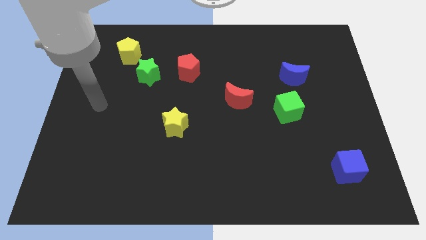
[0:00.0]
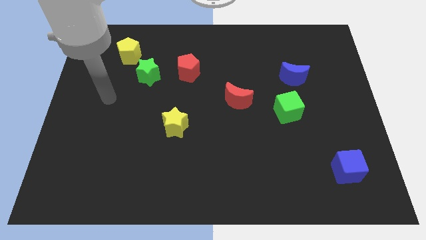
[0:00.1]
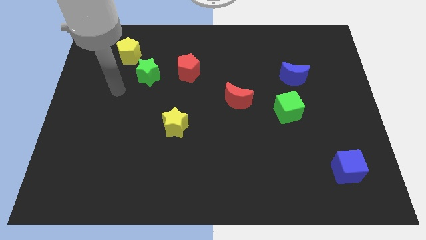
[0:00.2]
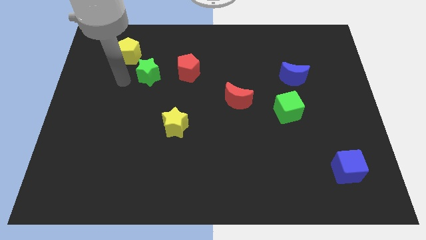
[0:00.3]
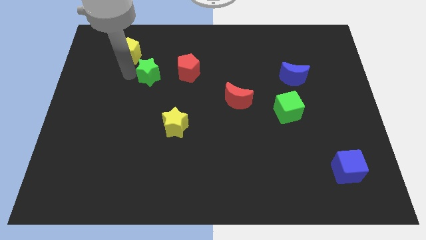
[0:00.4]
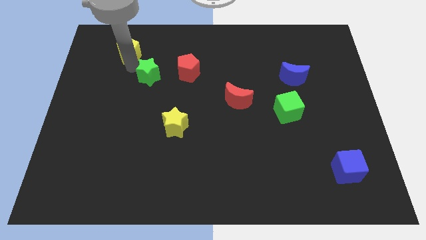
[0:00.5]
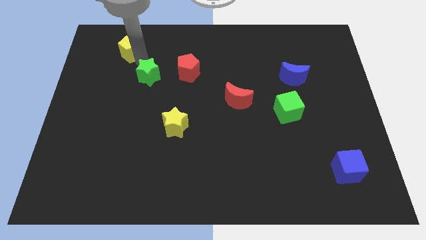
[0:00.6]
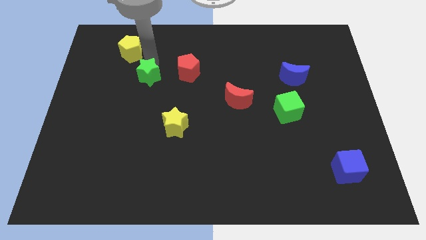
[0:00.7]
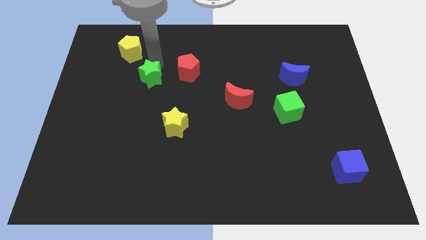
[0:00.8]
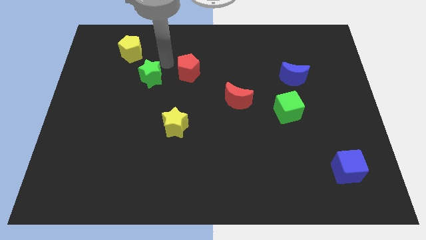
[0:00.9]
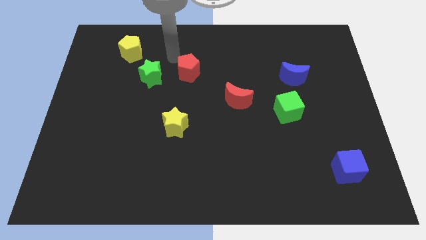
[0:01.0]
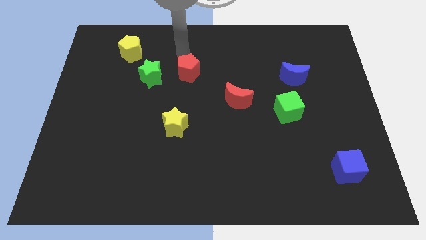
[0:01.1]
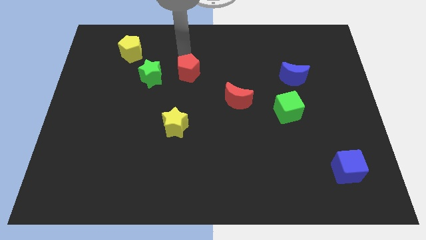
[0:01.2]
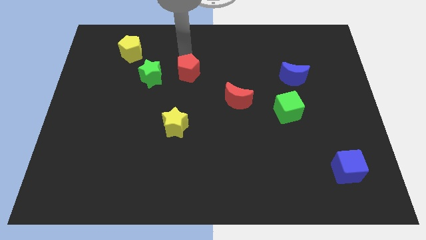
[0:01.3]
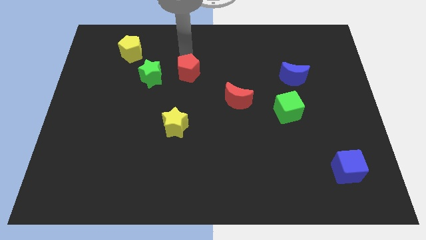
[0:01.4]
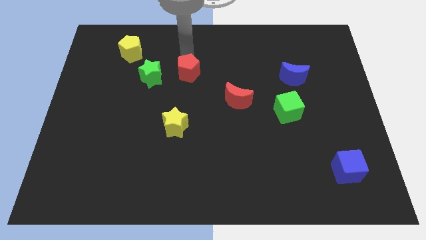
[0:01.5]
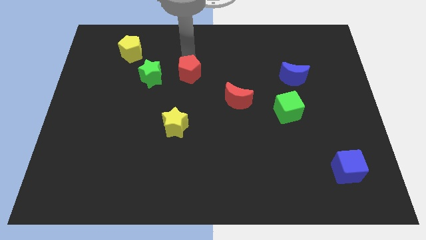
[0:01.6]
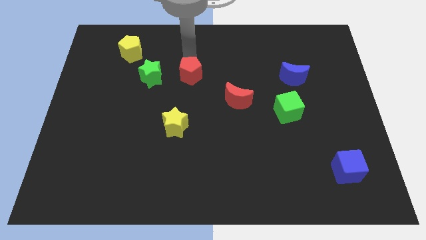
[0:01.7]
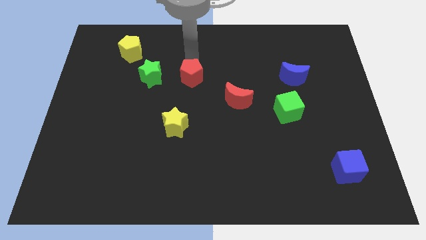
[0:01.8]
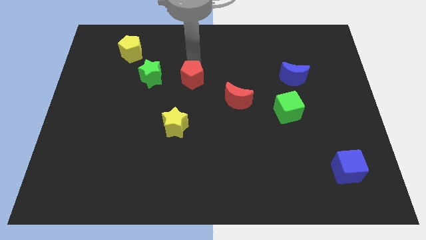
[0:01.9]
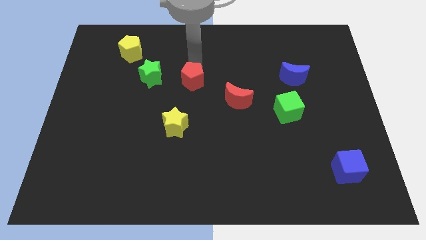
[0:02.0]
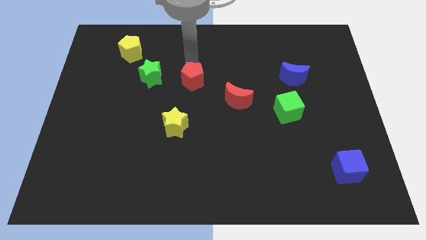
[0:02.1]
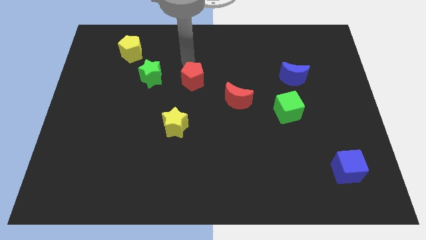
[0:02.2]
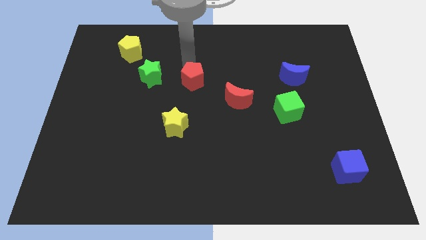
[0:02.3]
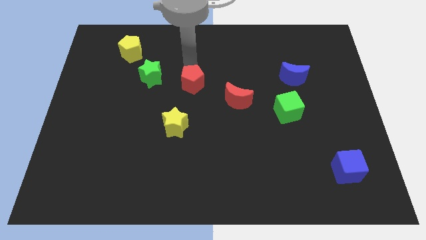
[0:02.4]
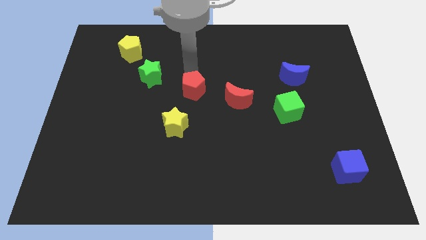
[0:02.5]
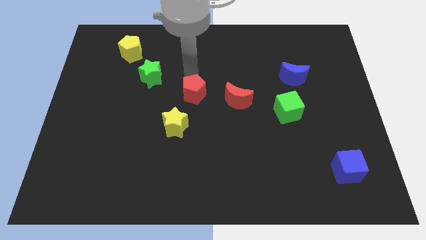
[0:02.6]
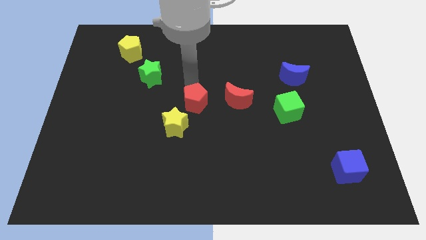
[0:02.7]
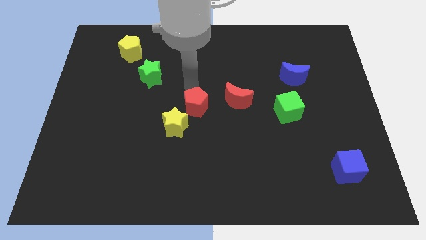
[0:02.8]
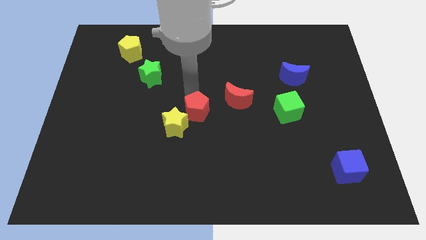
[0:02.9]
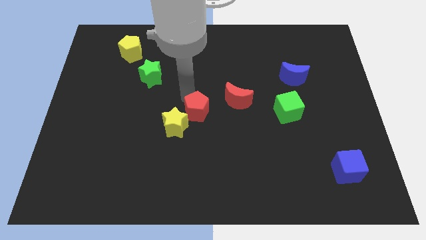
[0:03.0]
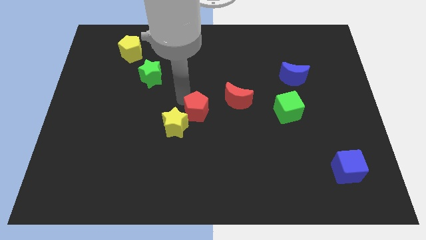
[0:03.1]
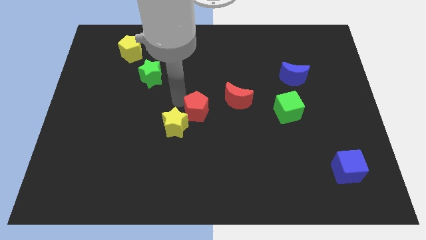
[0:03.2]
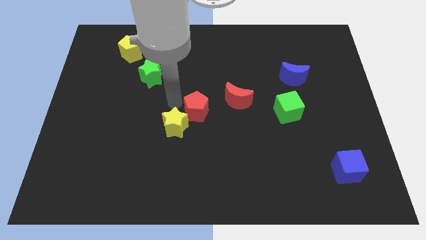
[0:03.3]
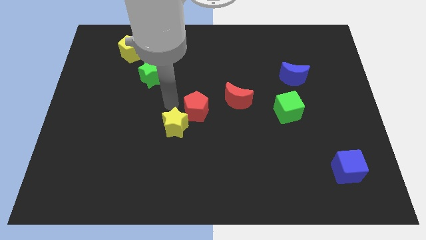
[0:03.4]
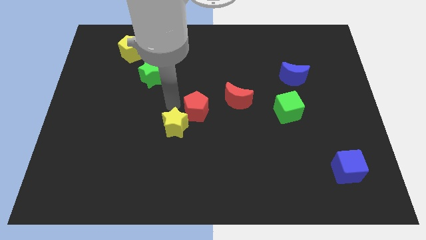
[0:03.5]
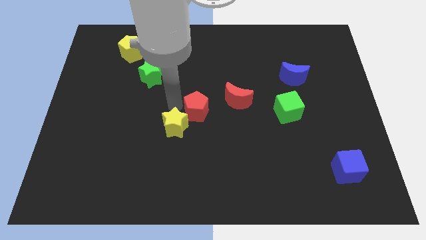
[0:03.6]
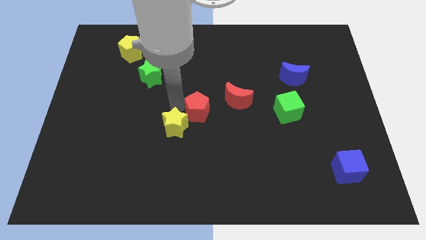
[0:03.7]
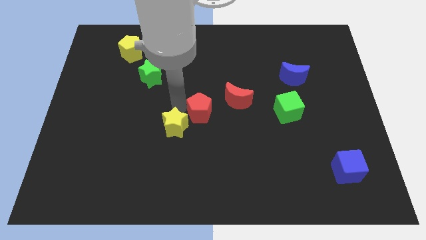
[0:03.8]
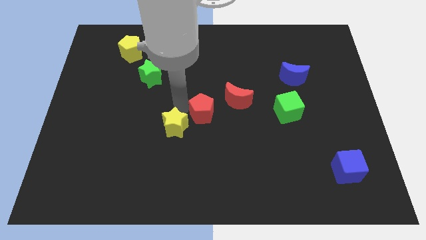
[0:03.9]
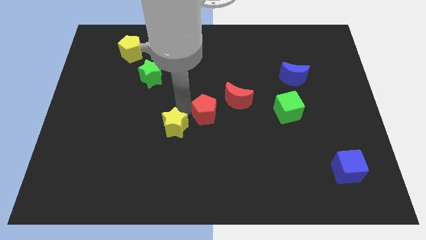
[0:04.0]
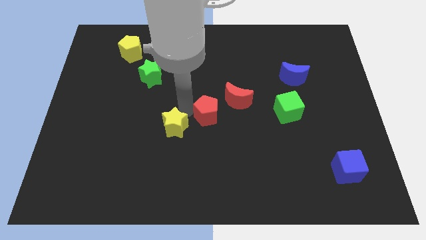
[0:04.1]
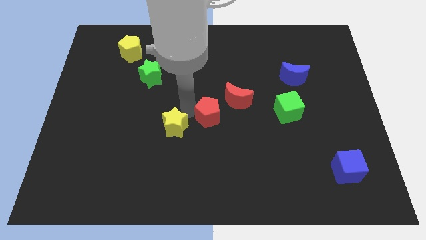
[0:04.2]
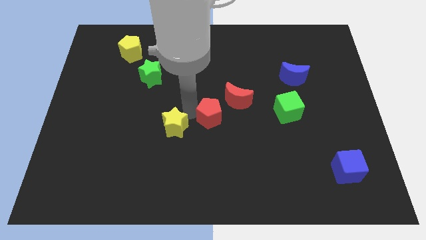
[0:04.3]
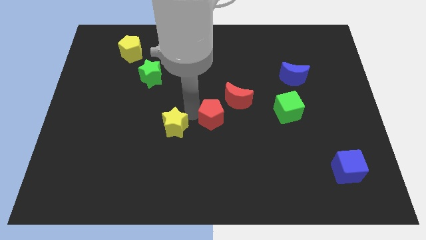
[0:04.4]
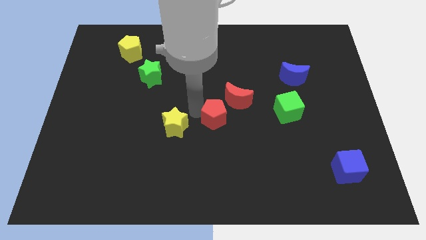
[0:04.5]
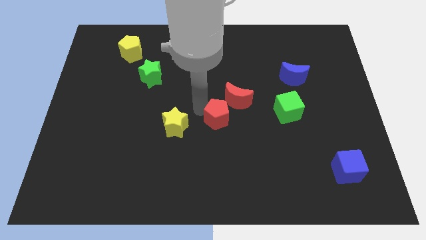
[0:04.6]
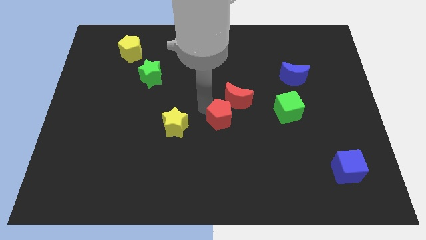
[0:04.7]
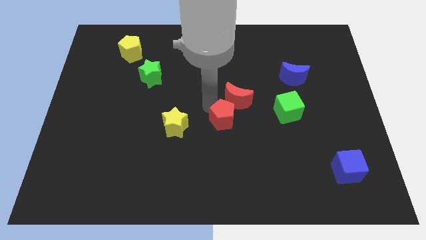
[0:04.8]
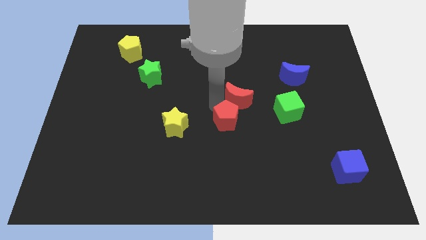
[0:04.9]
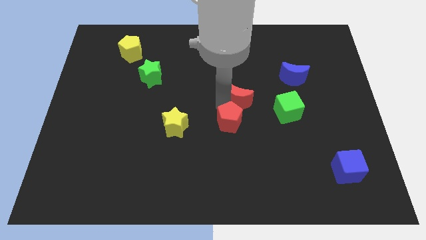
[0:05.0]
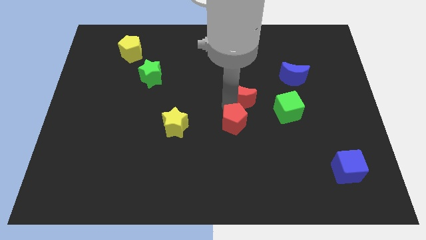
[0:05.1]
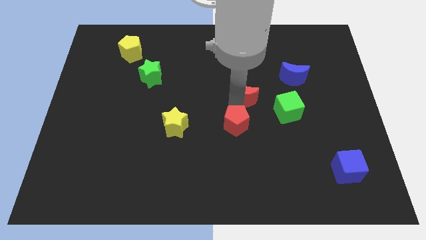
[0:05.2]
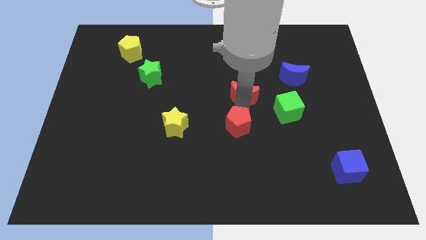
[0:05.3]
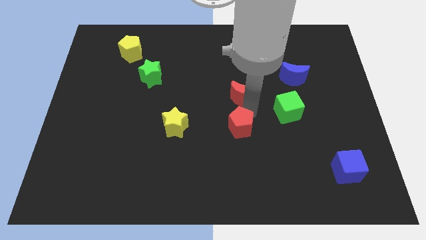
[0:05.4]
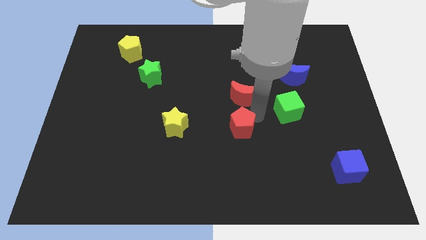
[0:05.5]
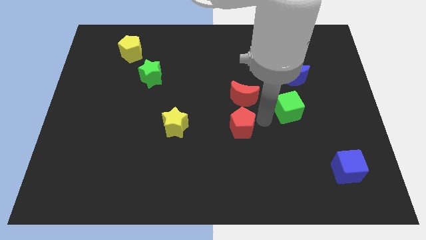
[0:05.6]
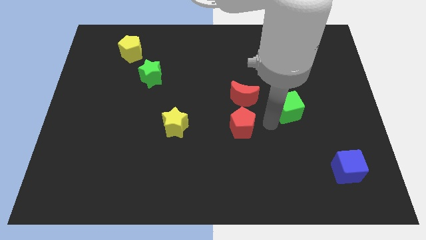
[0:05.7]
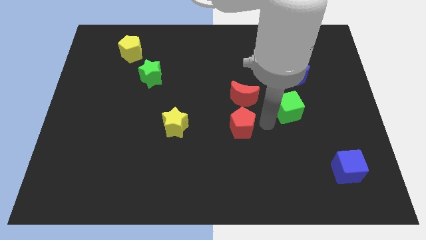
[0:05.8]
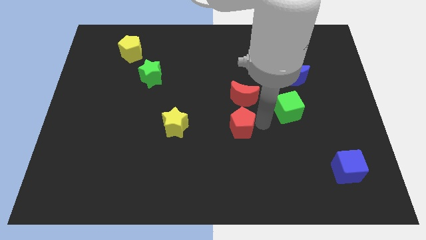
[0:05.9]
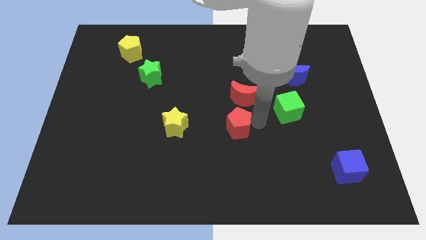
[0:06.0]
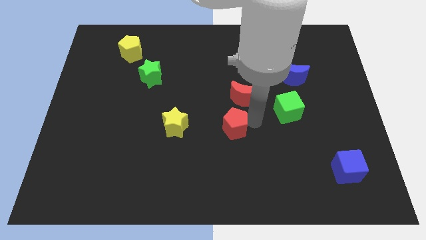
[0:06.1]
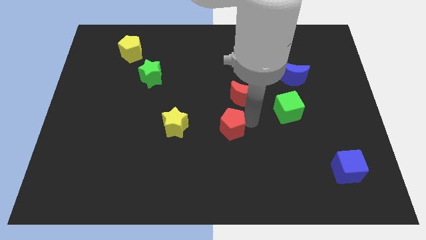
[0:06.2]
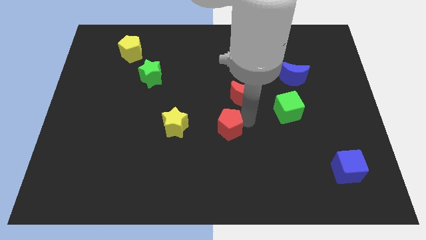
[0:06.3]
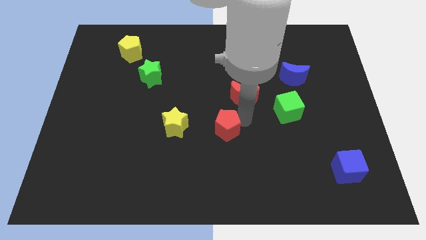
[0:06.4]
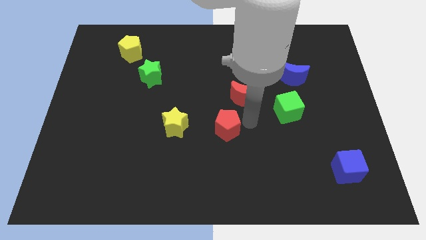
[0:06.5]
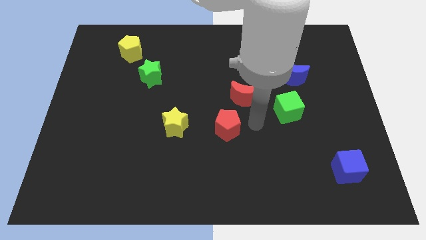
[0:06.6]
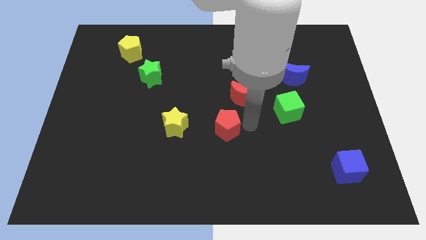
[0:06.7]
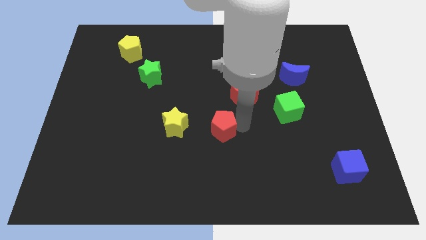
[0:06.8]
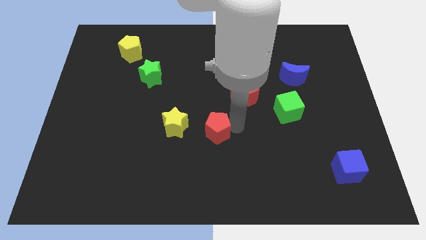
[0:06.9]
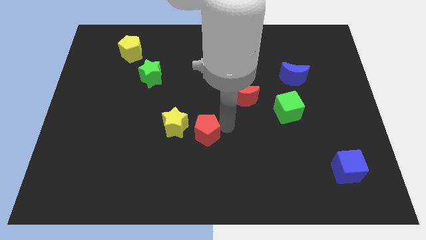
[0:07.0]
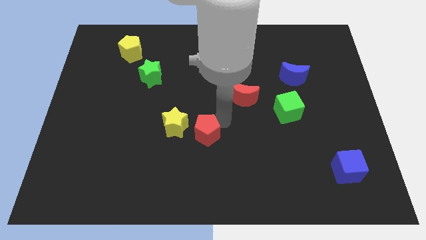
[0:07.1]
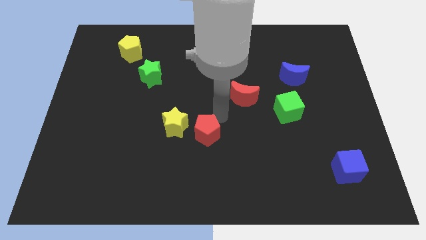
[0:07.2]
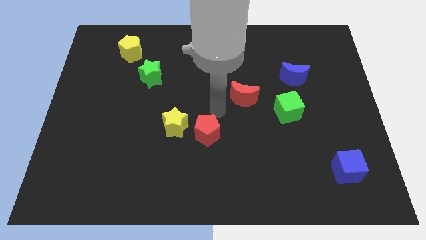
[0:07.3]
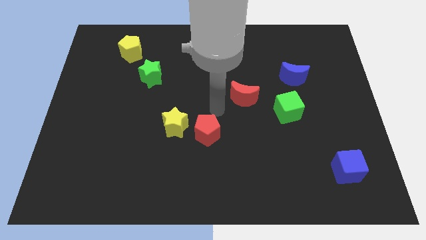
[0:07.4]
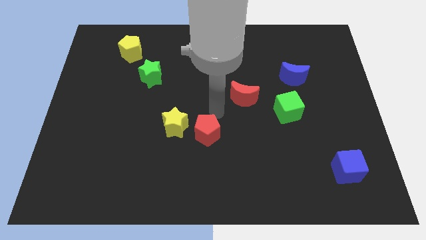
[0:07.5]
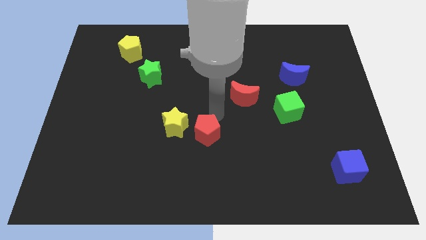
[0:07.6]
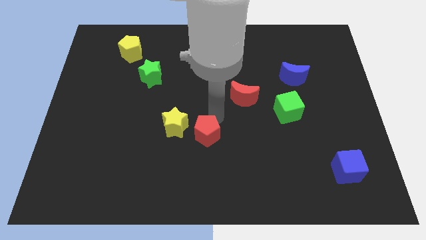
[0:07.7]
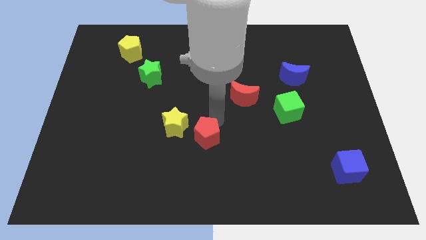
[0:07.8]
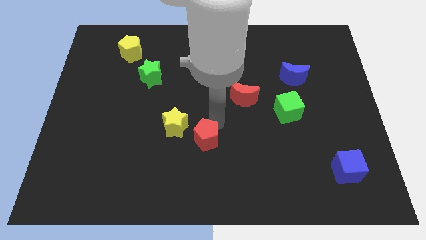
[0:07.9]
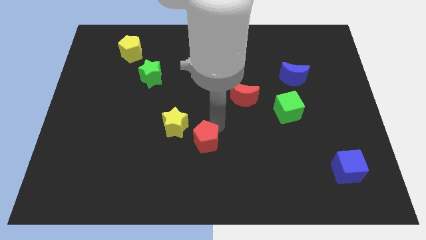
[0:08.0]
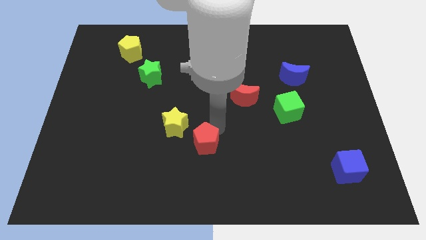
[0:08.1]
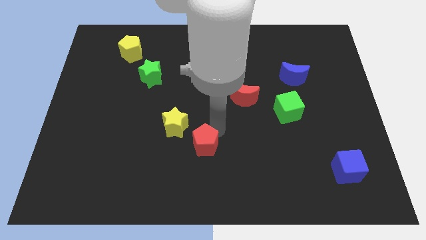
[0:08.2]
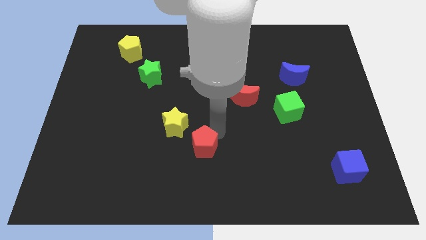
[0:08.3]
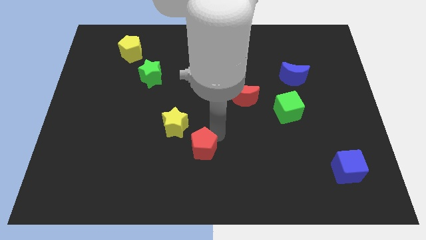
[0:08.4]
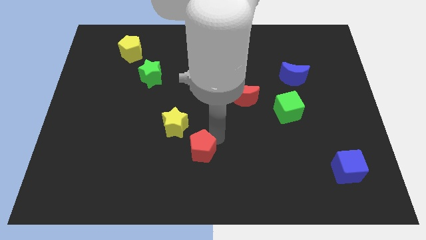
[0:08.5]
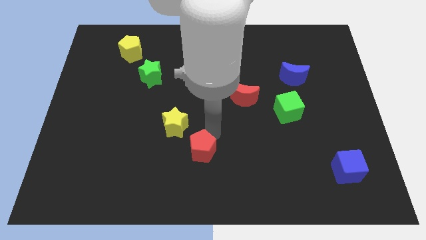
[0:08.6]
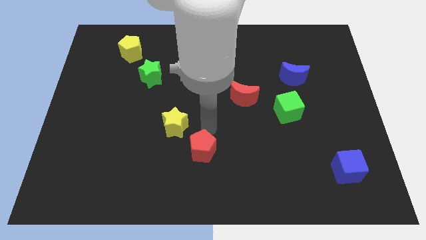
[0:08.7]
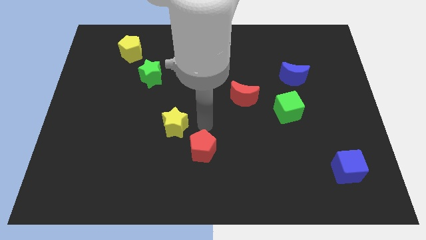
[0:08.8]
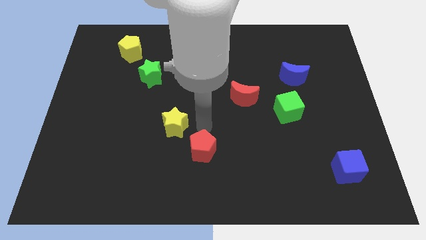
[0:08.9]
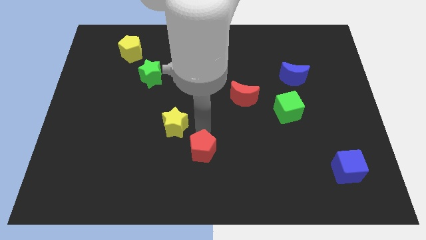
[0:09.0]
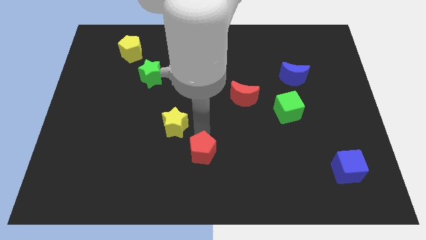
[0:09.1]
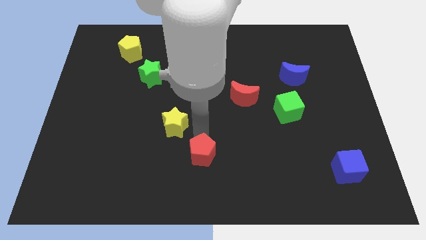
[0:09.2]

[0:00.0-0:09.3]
move the red pentagon to the bottom
